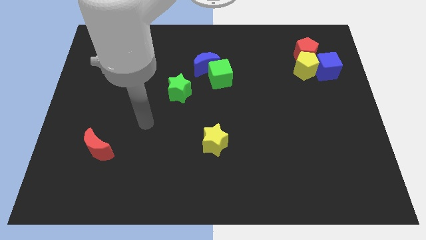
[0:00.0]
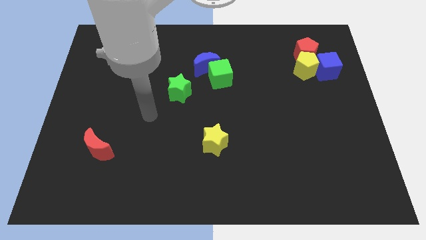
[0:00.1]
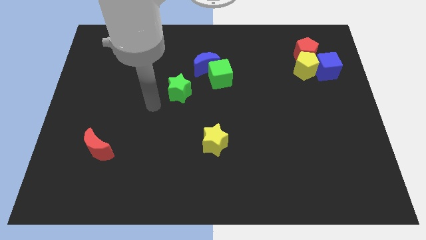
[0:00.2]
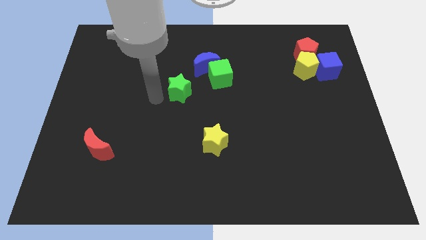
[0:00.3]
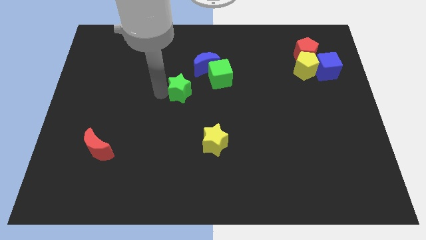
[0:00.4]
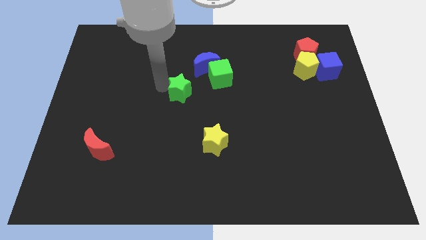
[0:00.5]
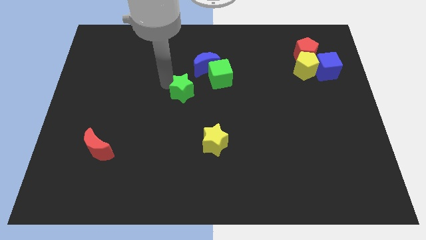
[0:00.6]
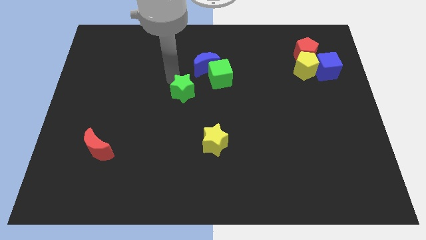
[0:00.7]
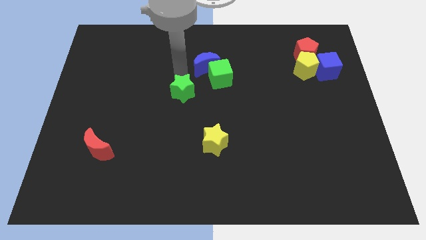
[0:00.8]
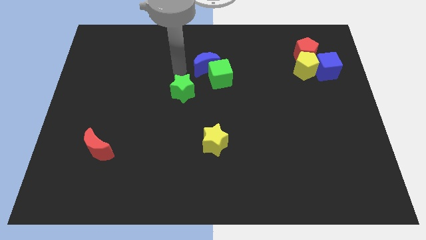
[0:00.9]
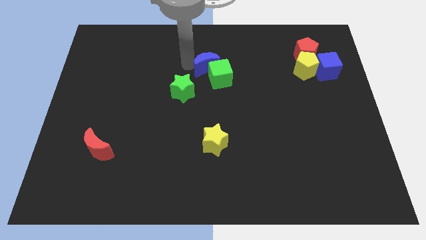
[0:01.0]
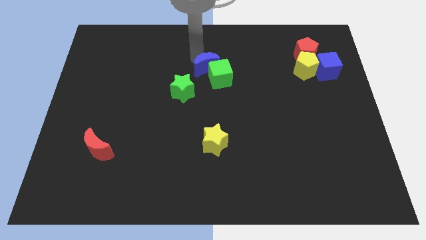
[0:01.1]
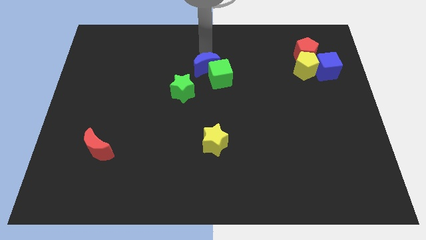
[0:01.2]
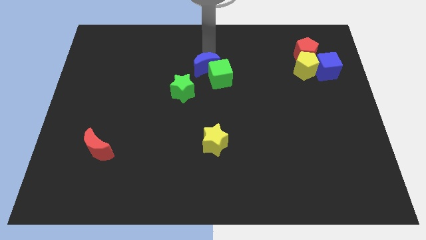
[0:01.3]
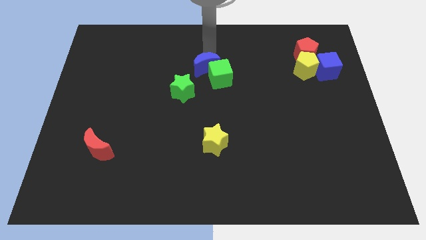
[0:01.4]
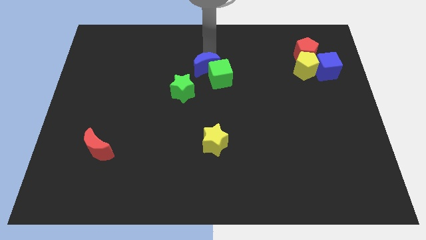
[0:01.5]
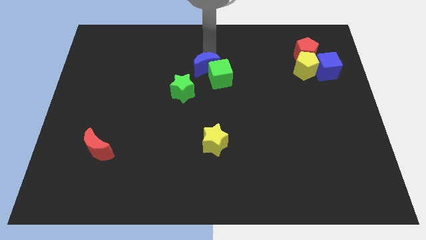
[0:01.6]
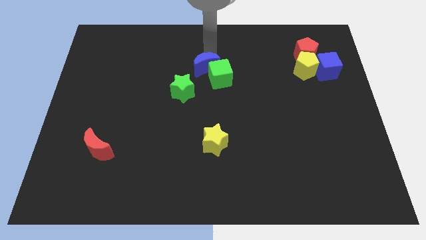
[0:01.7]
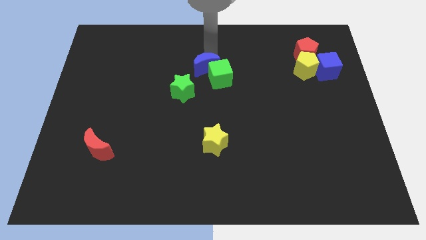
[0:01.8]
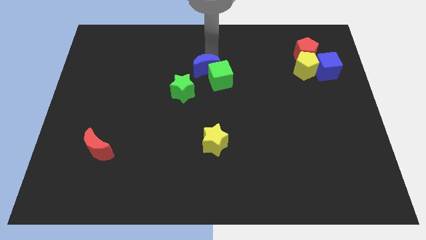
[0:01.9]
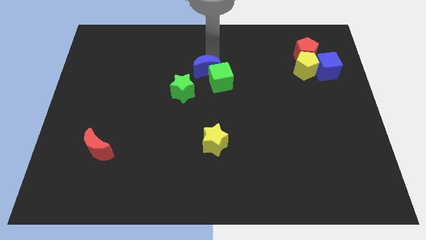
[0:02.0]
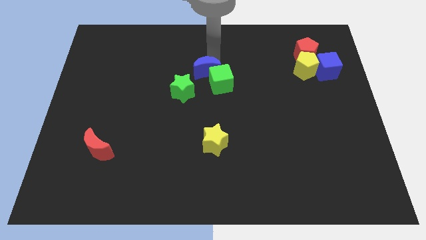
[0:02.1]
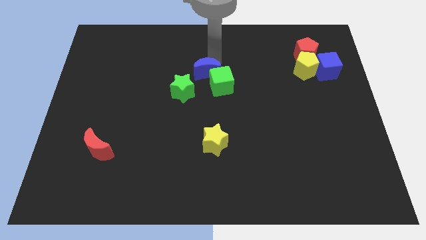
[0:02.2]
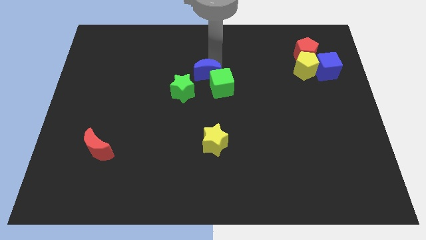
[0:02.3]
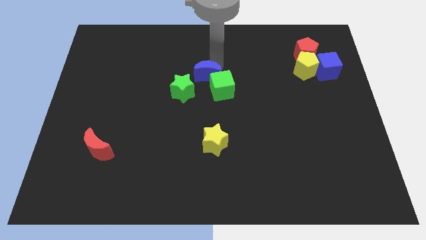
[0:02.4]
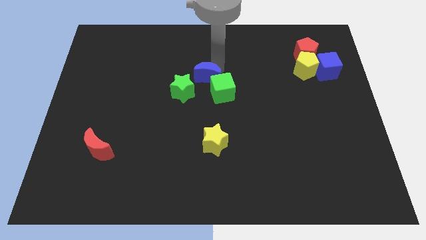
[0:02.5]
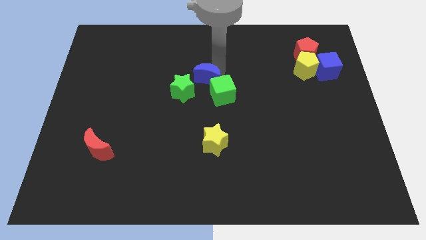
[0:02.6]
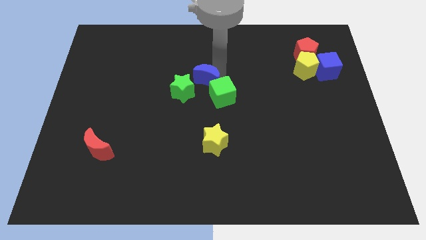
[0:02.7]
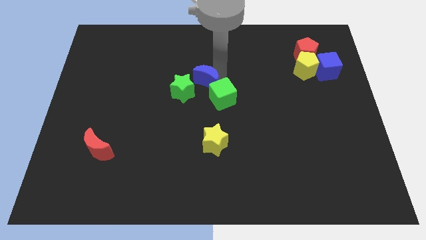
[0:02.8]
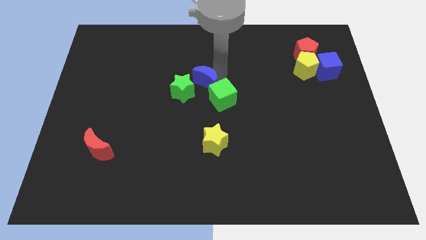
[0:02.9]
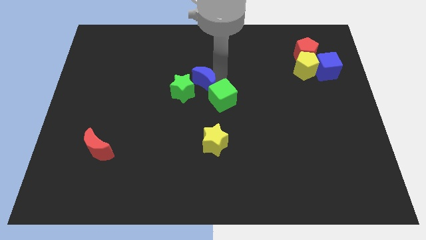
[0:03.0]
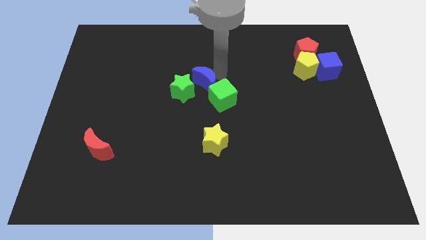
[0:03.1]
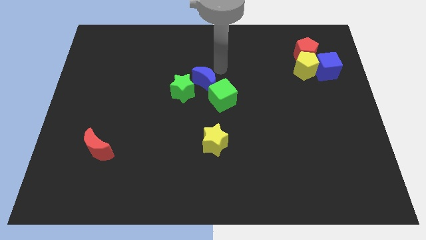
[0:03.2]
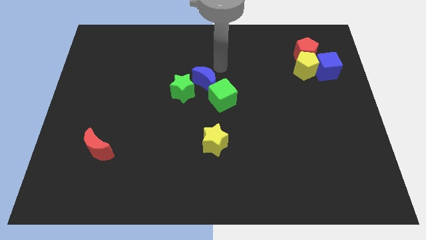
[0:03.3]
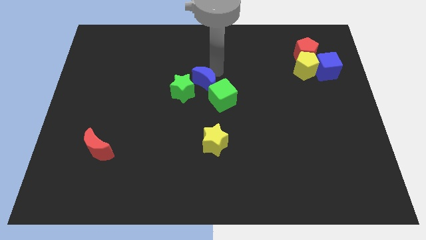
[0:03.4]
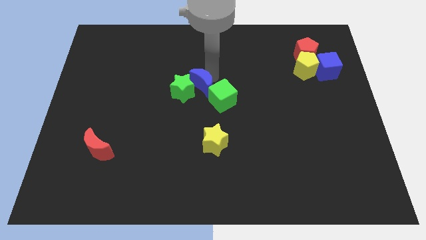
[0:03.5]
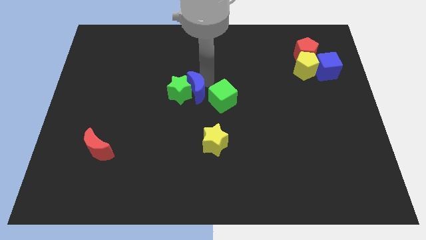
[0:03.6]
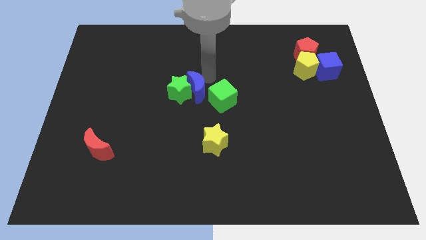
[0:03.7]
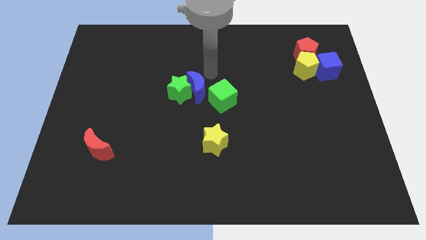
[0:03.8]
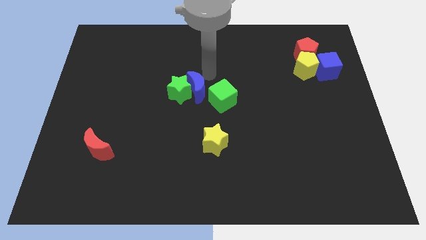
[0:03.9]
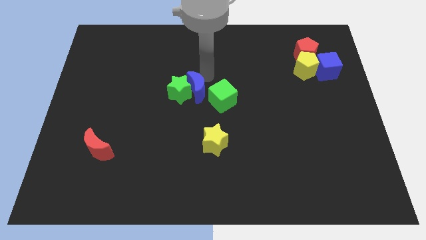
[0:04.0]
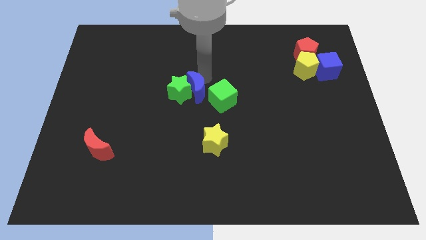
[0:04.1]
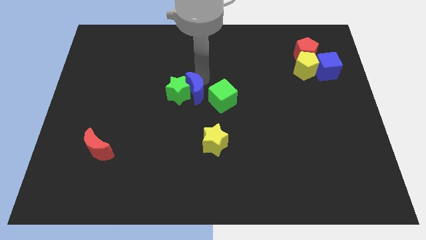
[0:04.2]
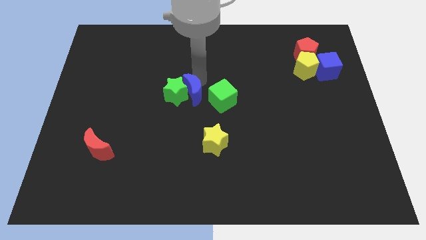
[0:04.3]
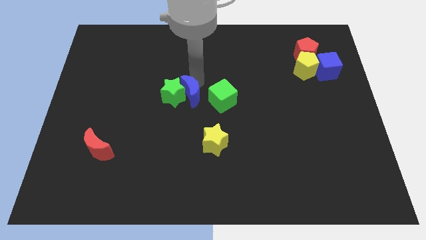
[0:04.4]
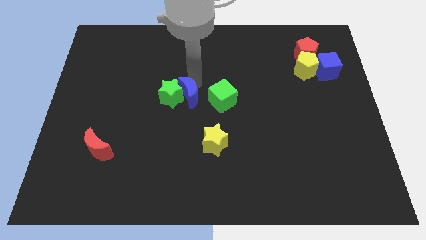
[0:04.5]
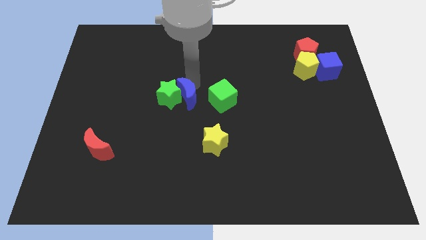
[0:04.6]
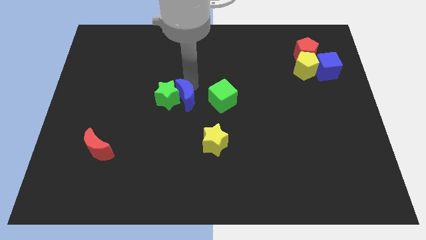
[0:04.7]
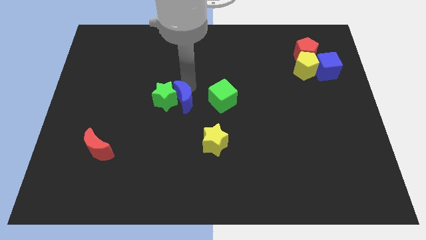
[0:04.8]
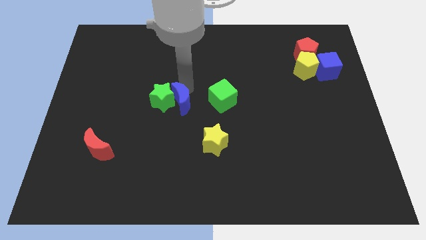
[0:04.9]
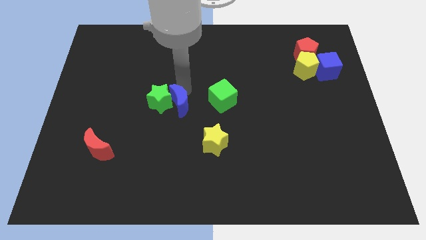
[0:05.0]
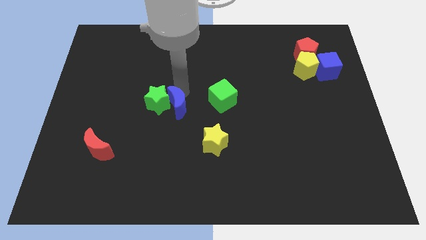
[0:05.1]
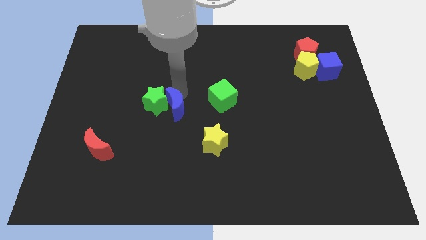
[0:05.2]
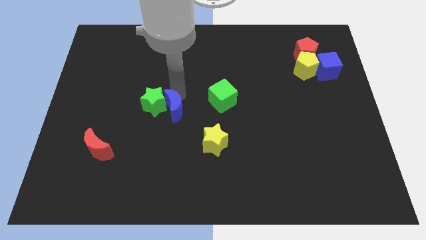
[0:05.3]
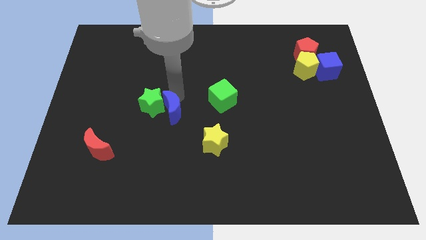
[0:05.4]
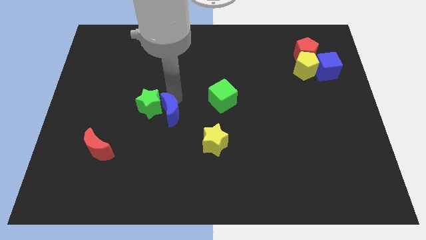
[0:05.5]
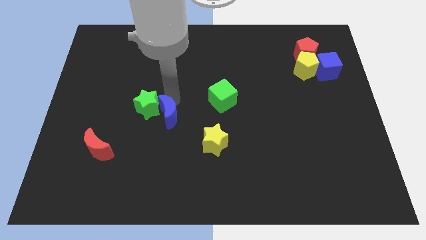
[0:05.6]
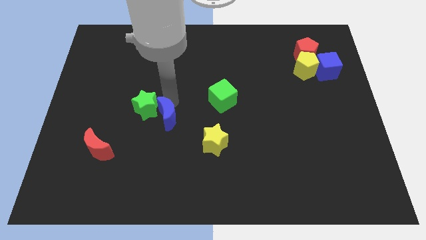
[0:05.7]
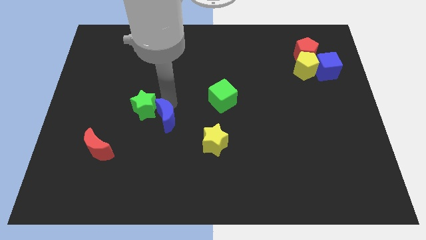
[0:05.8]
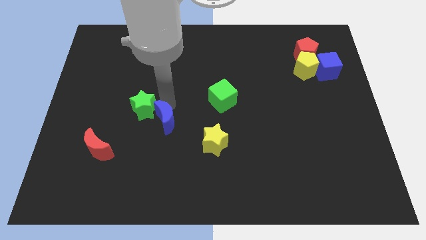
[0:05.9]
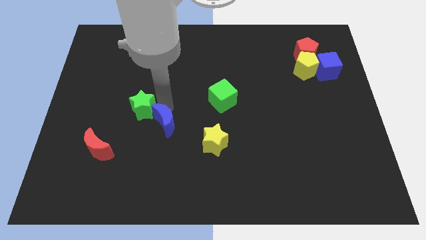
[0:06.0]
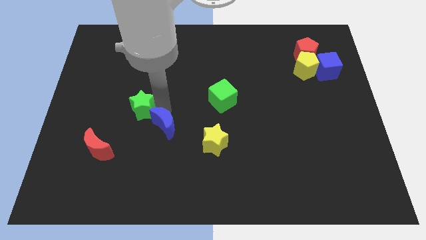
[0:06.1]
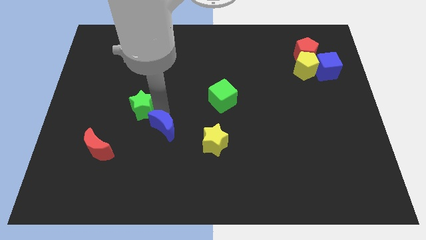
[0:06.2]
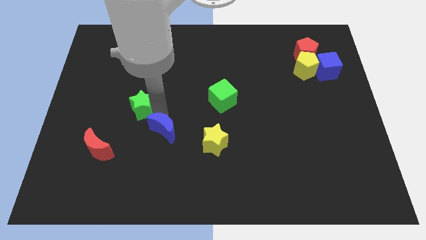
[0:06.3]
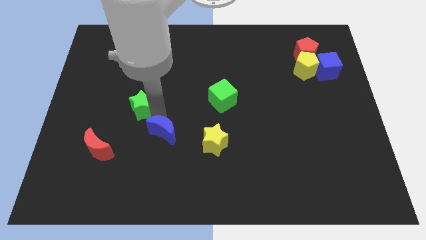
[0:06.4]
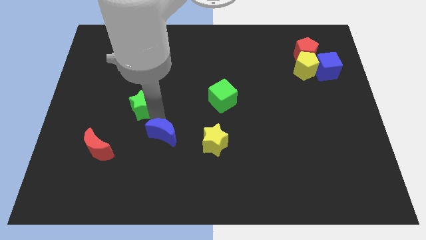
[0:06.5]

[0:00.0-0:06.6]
push the blue moon just right of the red moon

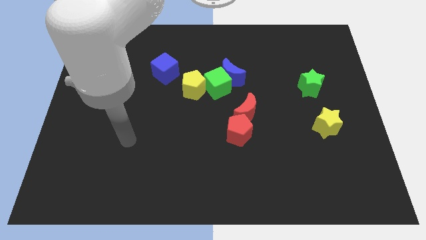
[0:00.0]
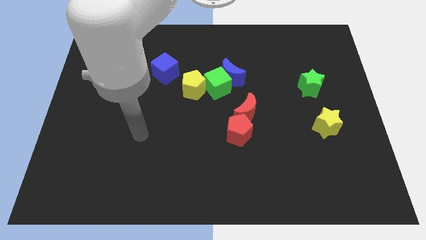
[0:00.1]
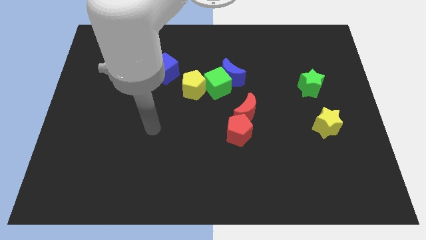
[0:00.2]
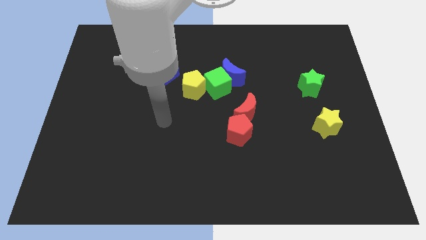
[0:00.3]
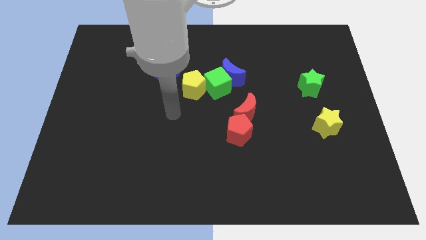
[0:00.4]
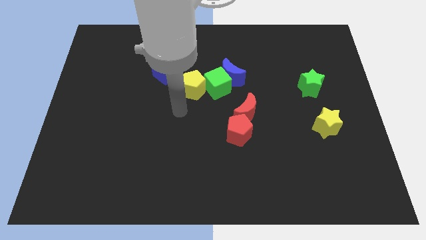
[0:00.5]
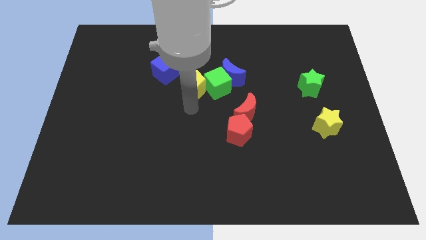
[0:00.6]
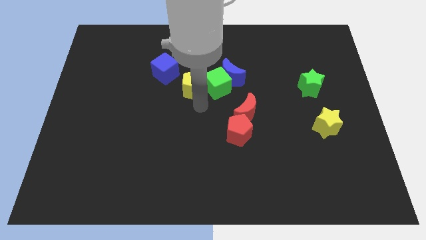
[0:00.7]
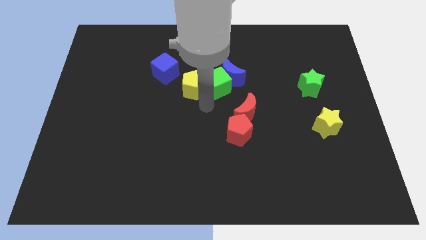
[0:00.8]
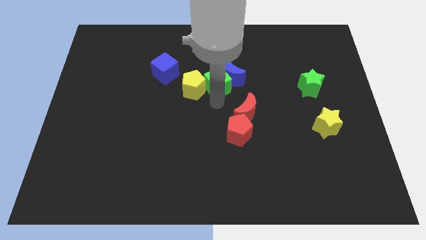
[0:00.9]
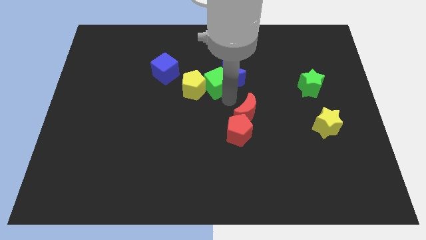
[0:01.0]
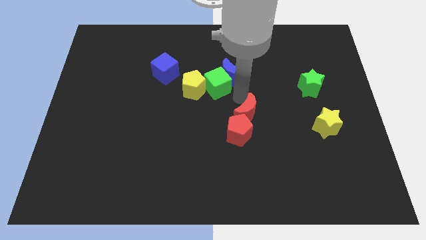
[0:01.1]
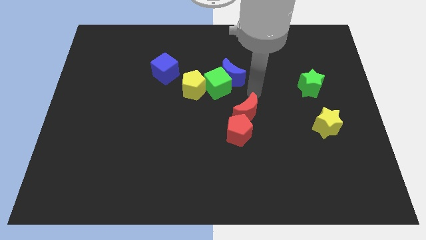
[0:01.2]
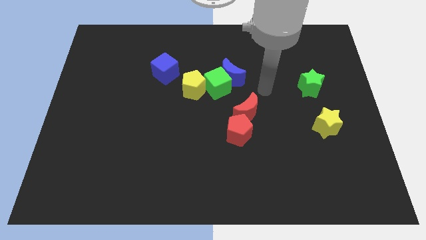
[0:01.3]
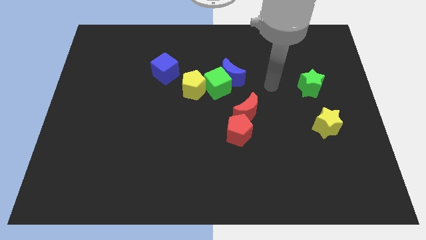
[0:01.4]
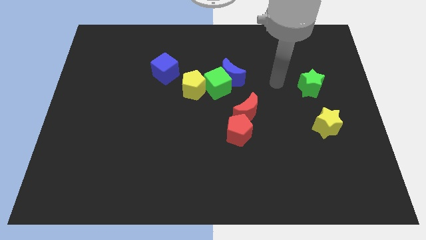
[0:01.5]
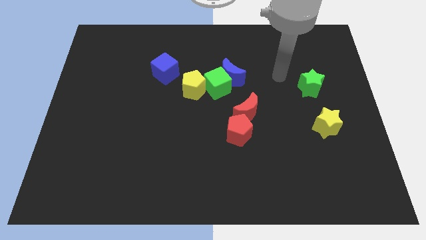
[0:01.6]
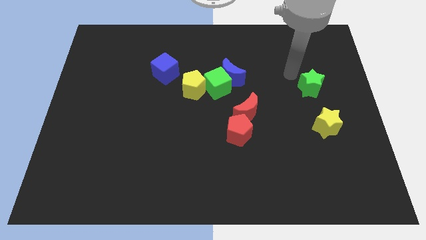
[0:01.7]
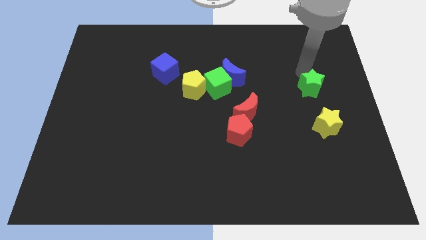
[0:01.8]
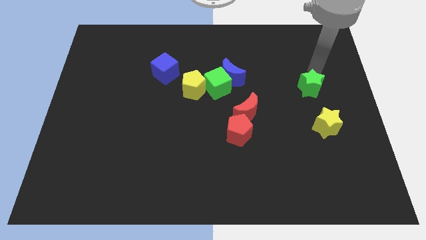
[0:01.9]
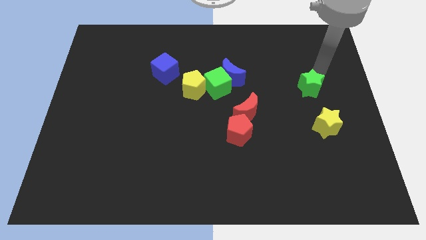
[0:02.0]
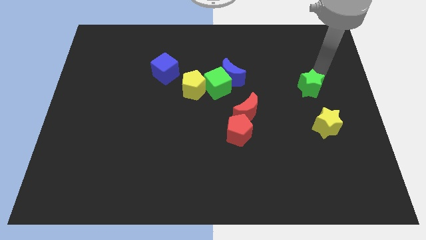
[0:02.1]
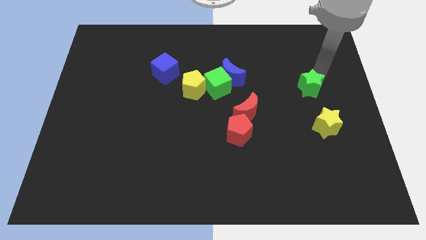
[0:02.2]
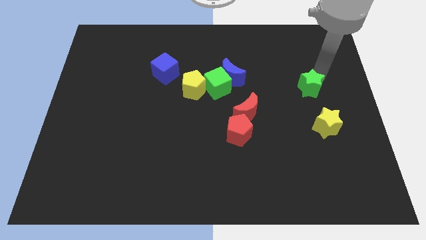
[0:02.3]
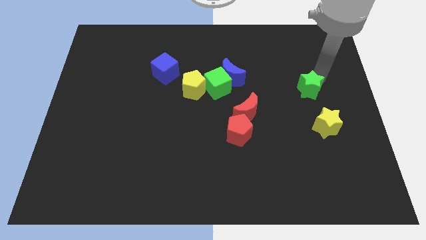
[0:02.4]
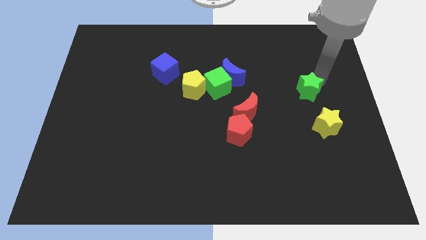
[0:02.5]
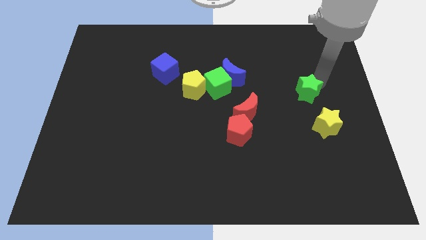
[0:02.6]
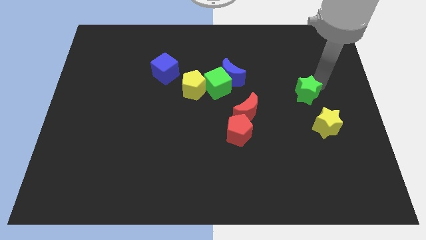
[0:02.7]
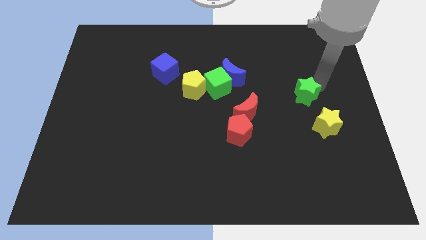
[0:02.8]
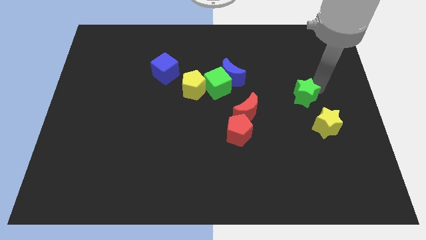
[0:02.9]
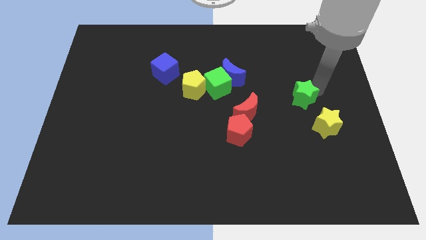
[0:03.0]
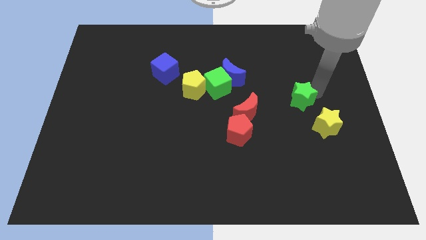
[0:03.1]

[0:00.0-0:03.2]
push the green star right of the red moon
